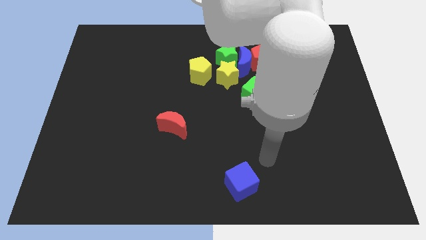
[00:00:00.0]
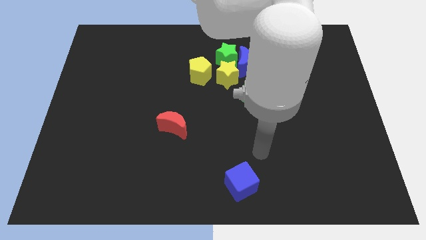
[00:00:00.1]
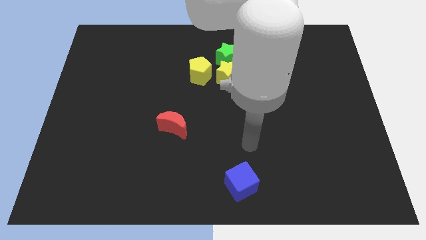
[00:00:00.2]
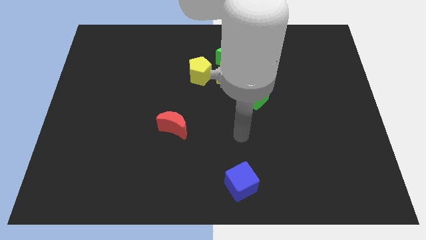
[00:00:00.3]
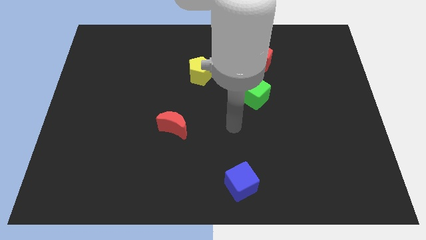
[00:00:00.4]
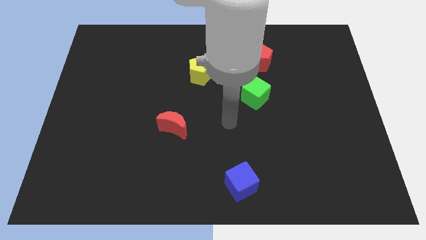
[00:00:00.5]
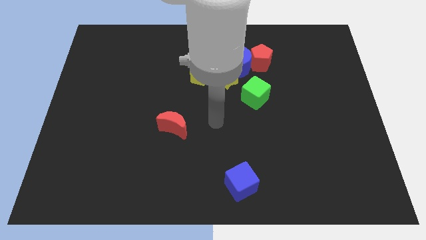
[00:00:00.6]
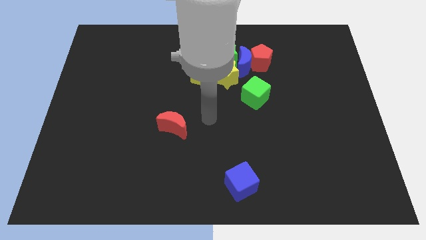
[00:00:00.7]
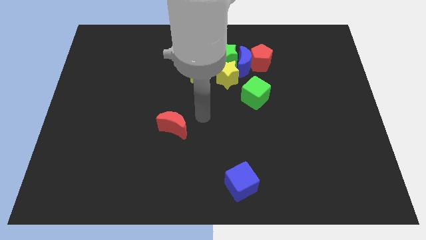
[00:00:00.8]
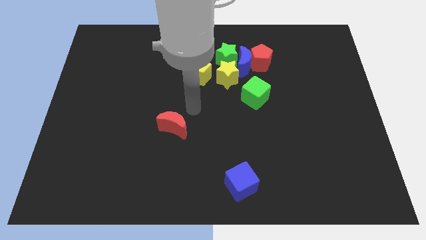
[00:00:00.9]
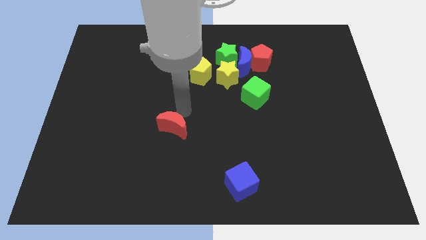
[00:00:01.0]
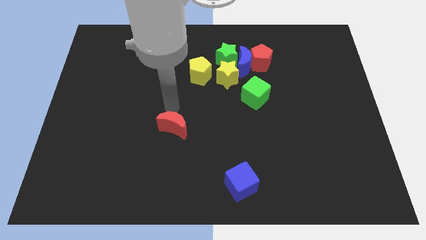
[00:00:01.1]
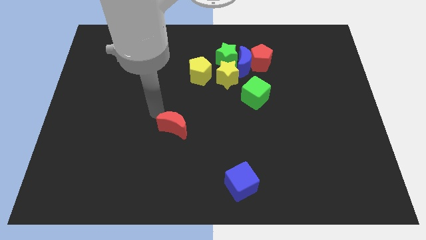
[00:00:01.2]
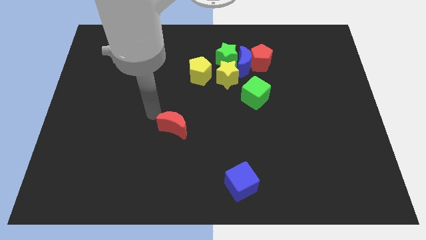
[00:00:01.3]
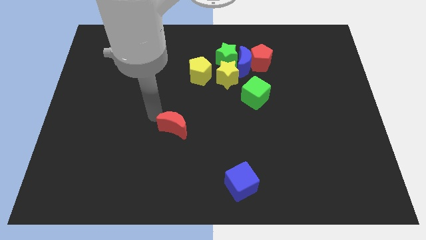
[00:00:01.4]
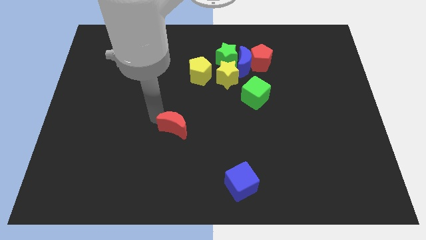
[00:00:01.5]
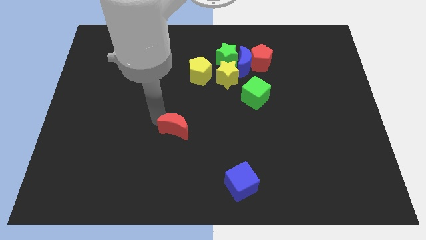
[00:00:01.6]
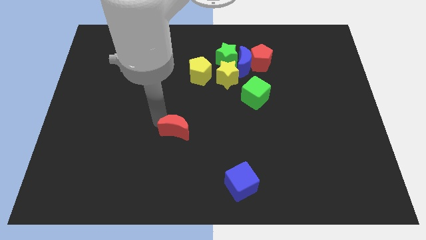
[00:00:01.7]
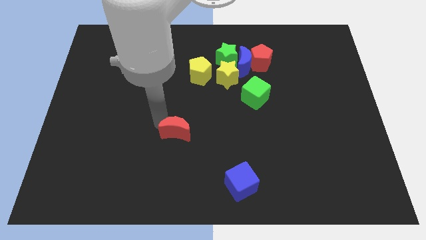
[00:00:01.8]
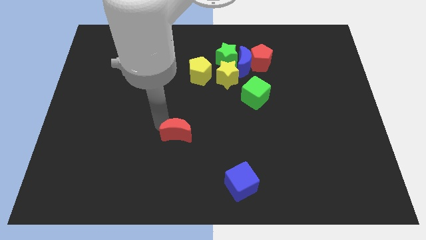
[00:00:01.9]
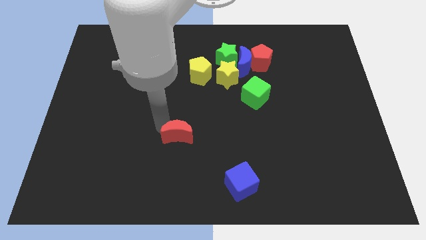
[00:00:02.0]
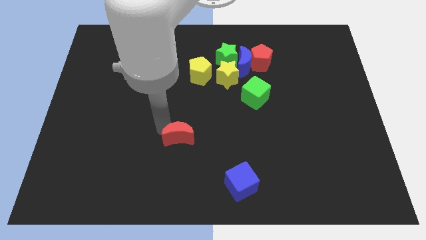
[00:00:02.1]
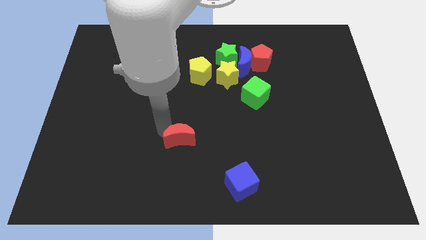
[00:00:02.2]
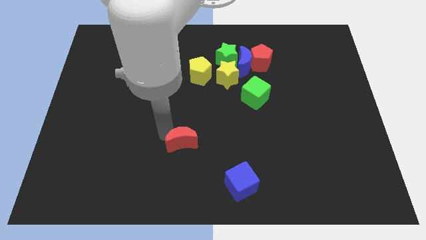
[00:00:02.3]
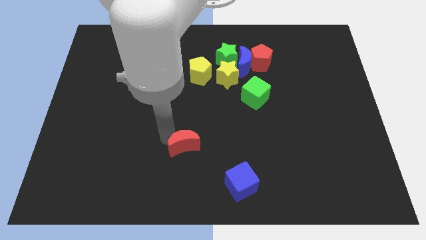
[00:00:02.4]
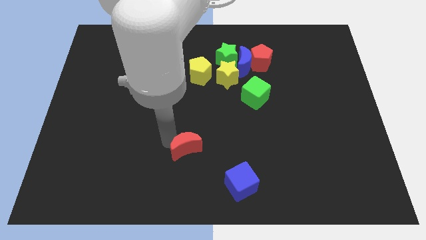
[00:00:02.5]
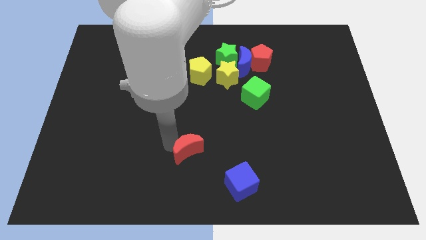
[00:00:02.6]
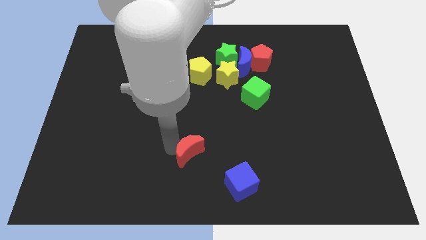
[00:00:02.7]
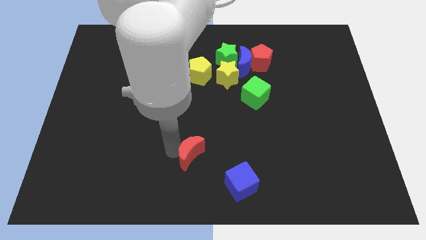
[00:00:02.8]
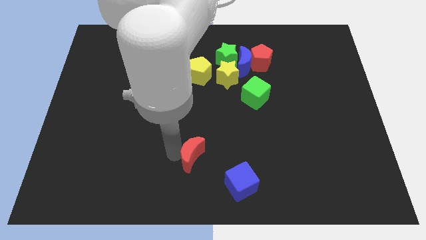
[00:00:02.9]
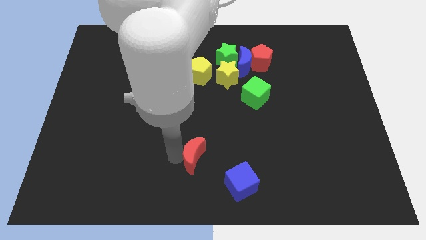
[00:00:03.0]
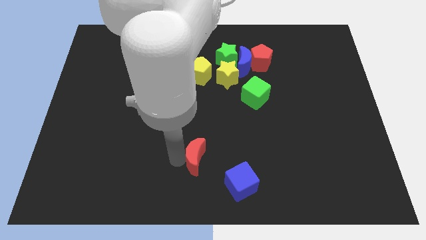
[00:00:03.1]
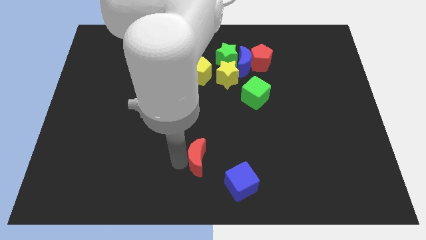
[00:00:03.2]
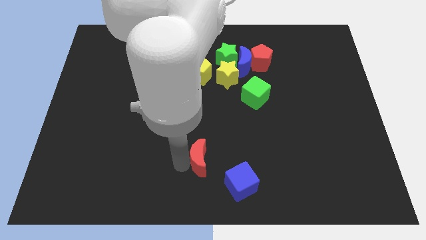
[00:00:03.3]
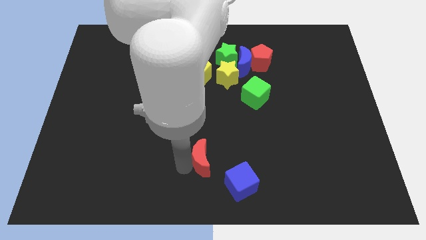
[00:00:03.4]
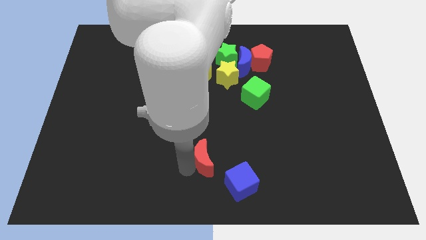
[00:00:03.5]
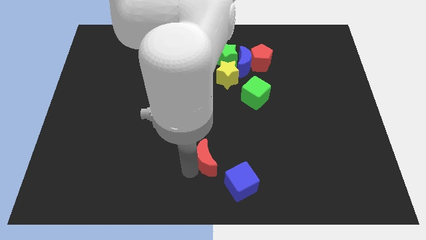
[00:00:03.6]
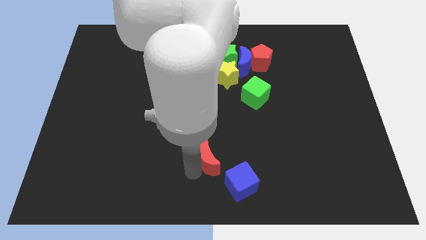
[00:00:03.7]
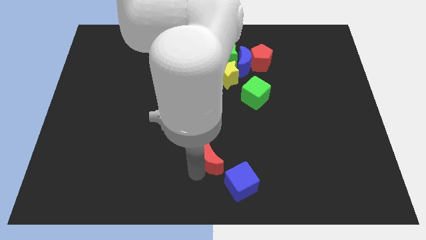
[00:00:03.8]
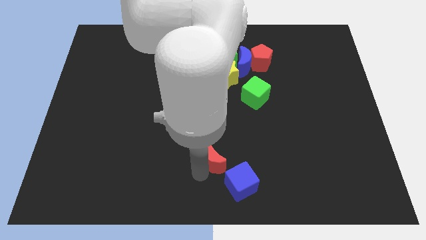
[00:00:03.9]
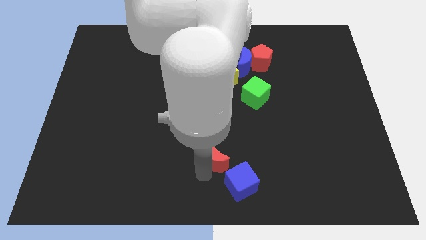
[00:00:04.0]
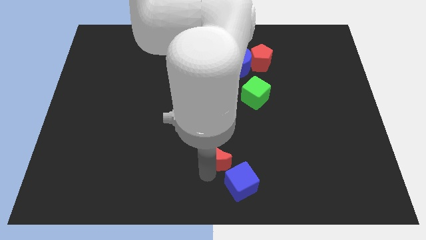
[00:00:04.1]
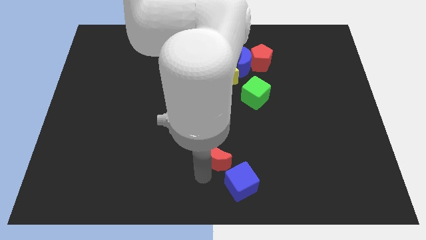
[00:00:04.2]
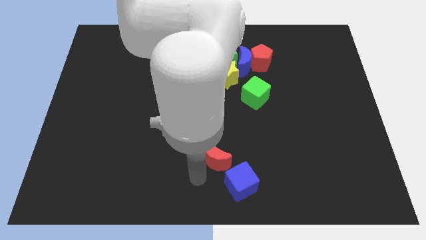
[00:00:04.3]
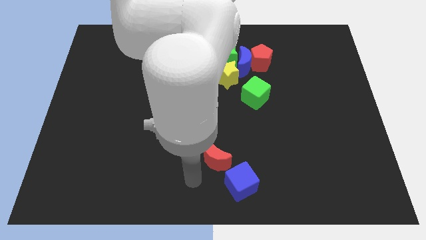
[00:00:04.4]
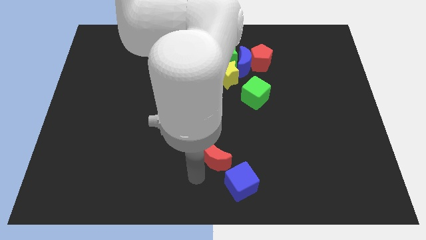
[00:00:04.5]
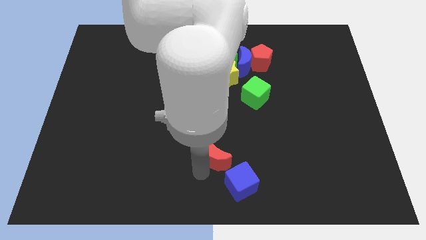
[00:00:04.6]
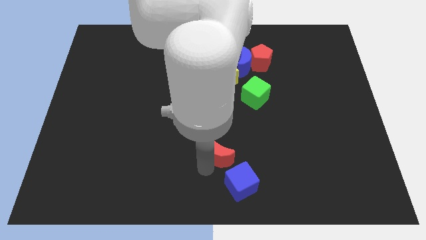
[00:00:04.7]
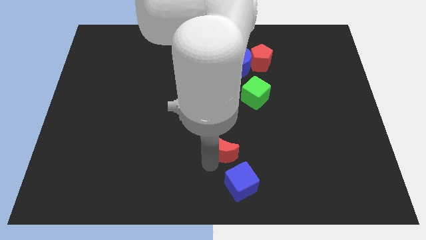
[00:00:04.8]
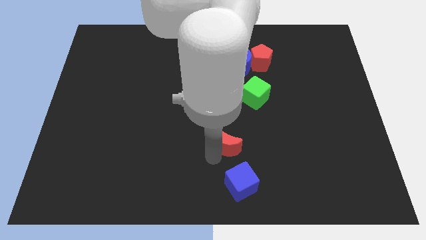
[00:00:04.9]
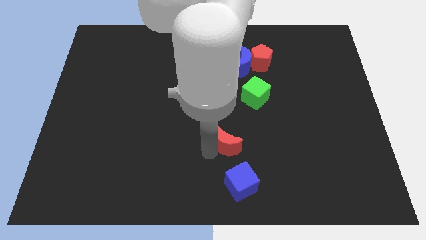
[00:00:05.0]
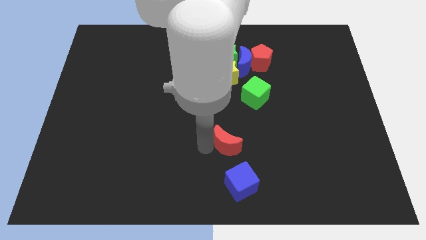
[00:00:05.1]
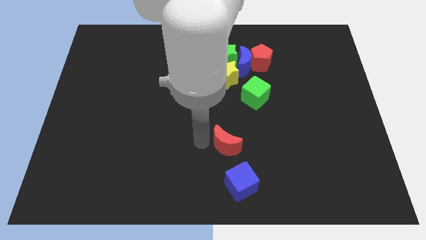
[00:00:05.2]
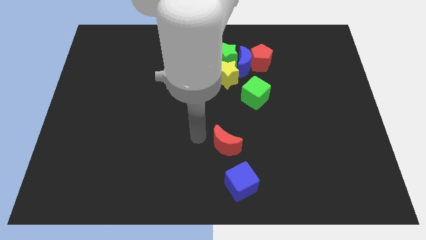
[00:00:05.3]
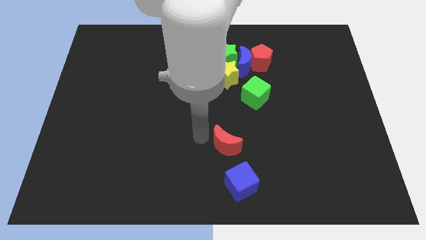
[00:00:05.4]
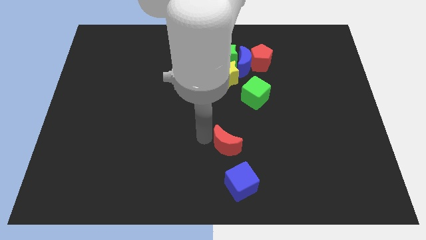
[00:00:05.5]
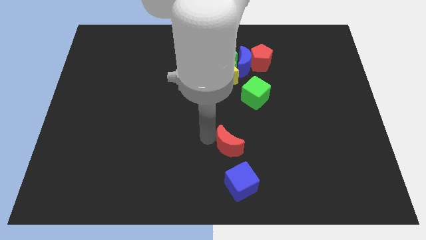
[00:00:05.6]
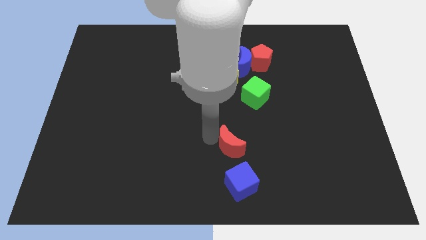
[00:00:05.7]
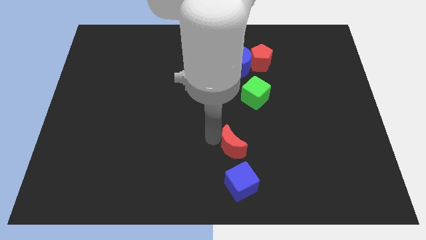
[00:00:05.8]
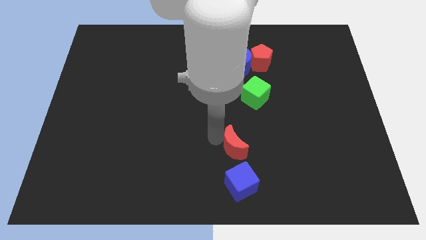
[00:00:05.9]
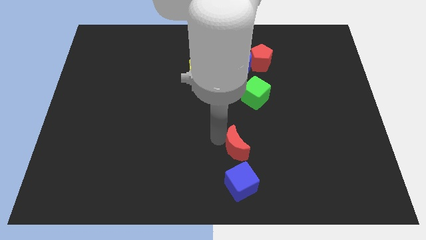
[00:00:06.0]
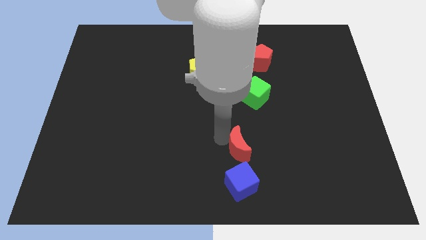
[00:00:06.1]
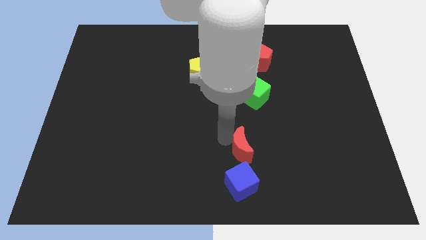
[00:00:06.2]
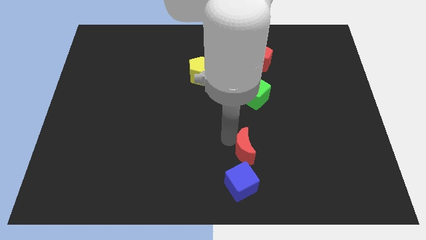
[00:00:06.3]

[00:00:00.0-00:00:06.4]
slide the red moon to the top right side of the blue cube

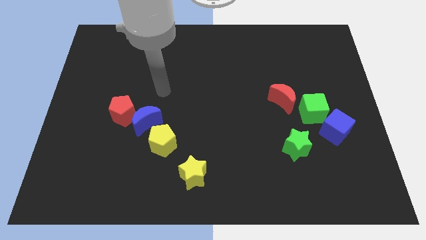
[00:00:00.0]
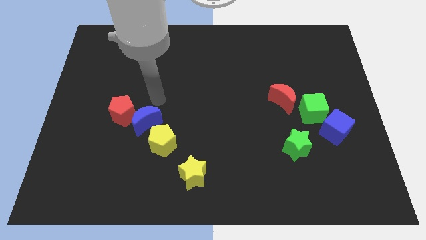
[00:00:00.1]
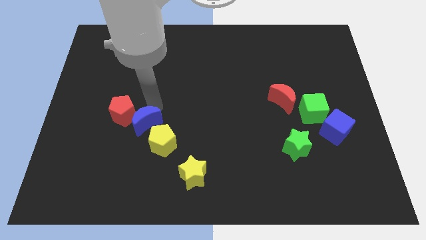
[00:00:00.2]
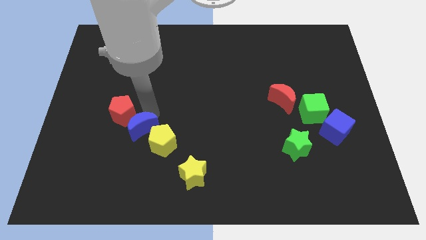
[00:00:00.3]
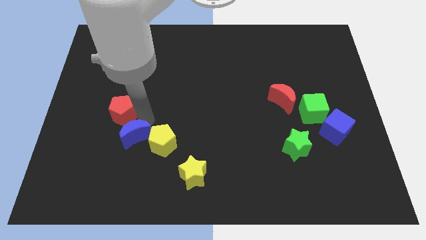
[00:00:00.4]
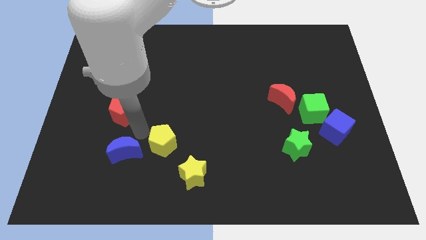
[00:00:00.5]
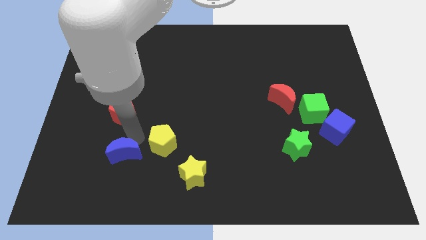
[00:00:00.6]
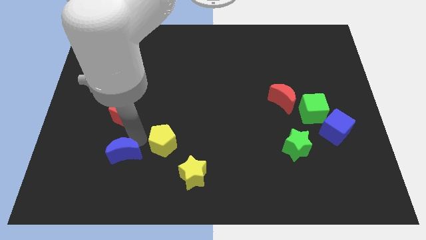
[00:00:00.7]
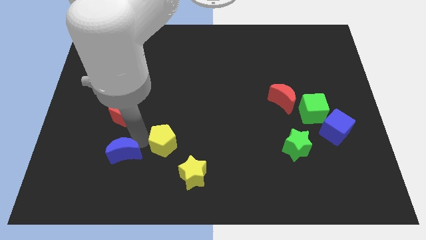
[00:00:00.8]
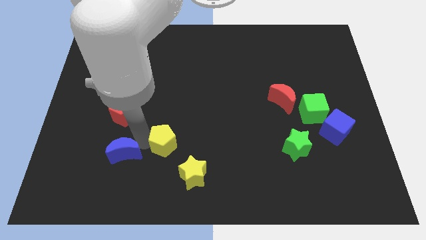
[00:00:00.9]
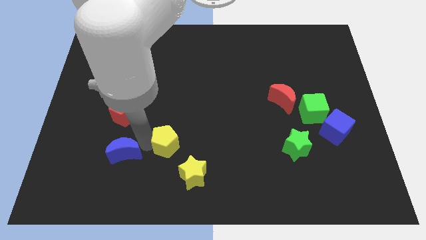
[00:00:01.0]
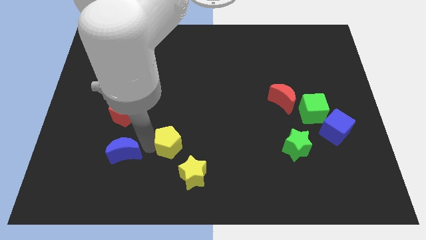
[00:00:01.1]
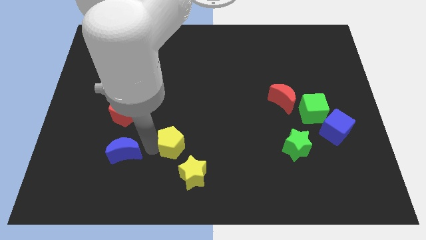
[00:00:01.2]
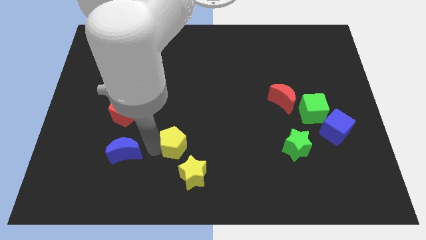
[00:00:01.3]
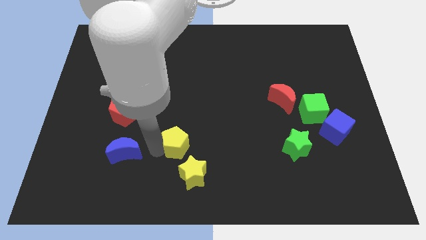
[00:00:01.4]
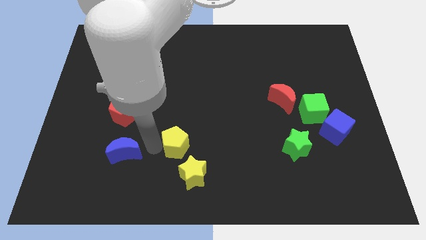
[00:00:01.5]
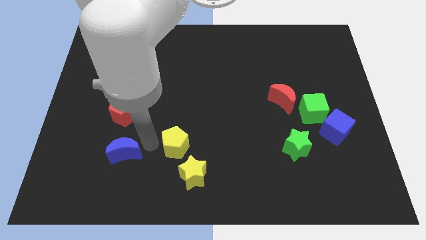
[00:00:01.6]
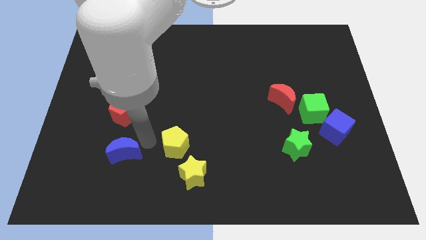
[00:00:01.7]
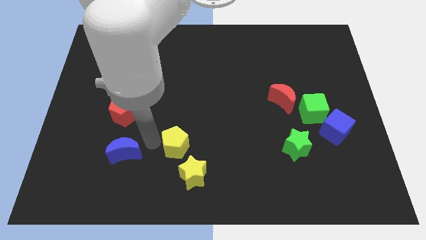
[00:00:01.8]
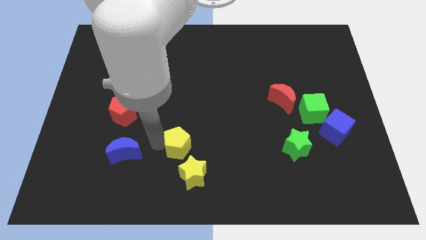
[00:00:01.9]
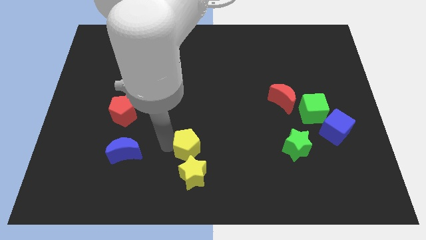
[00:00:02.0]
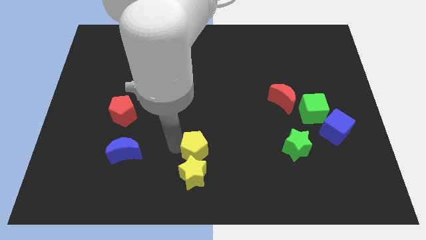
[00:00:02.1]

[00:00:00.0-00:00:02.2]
push the yellow pentagon to the top right of the yellow star
